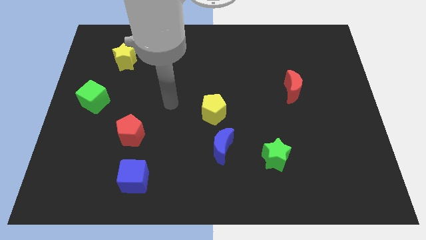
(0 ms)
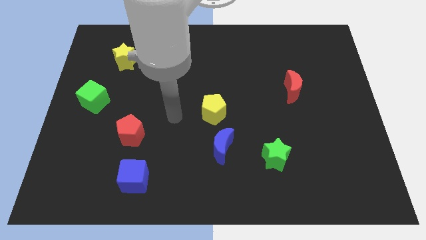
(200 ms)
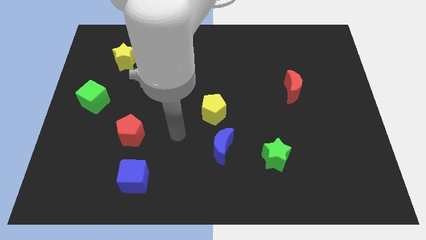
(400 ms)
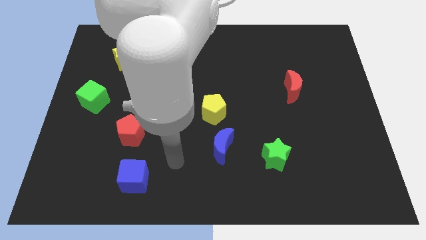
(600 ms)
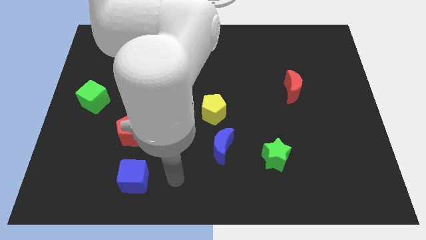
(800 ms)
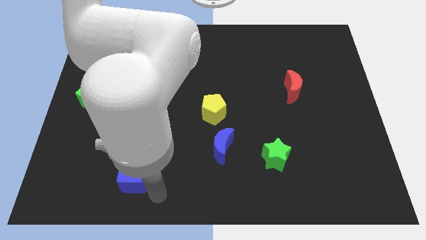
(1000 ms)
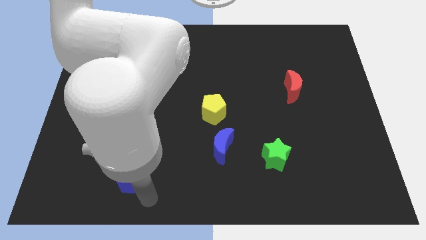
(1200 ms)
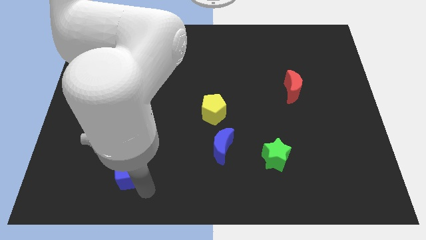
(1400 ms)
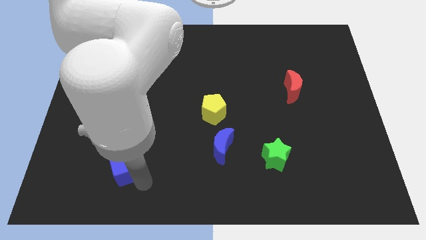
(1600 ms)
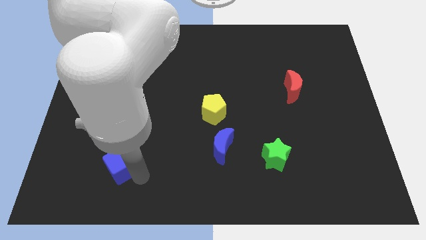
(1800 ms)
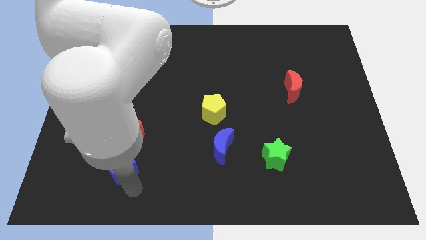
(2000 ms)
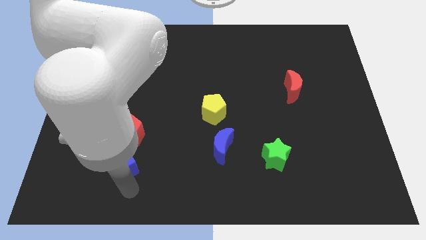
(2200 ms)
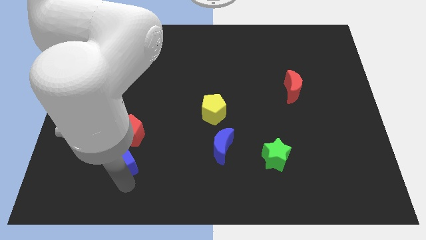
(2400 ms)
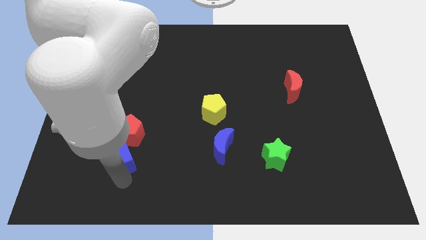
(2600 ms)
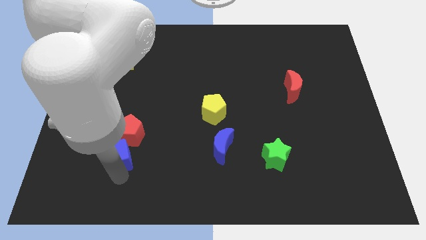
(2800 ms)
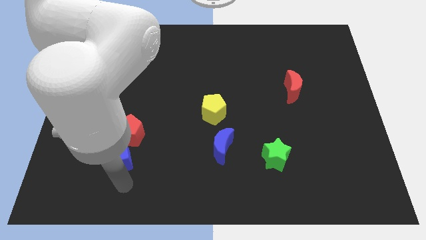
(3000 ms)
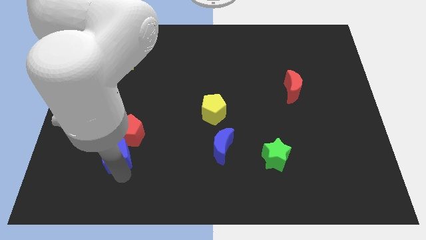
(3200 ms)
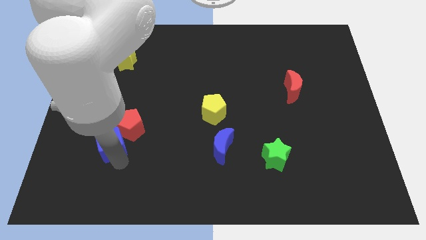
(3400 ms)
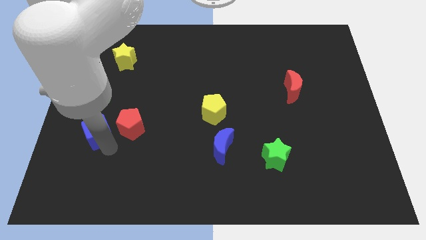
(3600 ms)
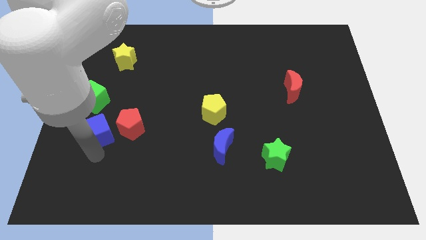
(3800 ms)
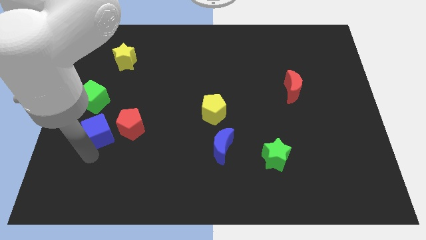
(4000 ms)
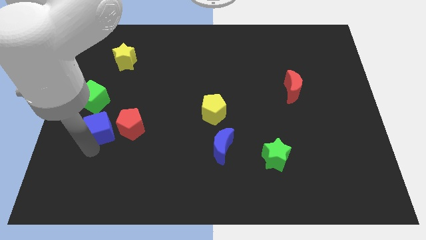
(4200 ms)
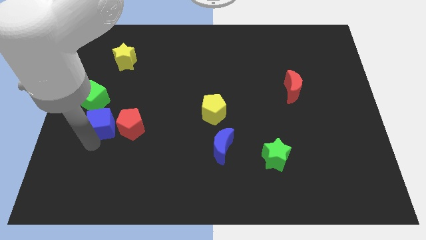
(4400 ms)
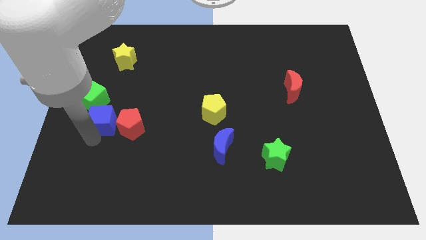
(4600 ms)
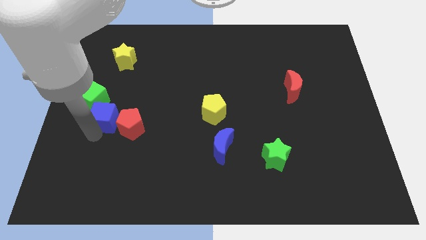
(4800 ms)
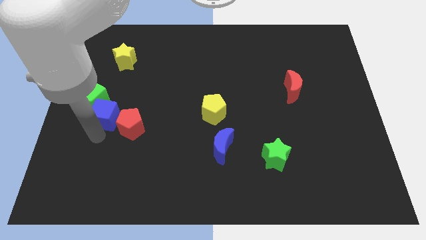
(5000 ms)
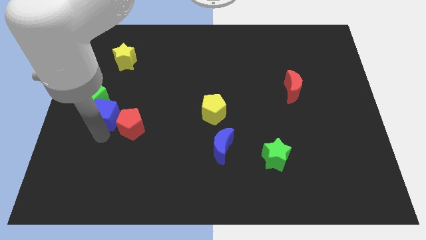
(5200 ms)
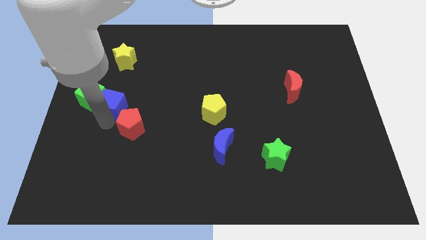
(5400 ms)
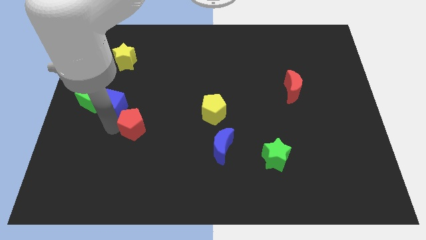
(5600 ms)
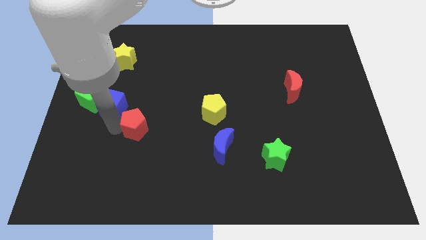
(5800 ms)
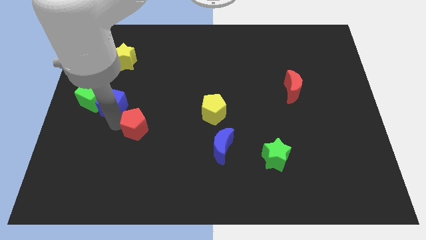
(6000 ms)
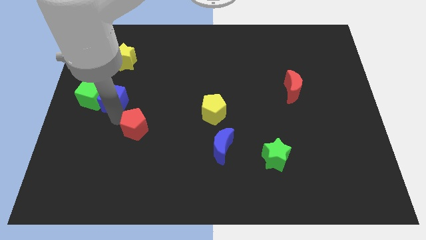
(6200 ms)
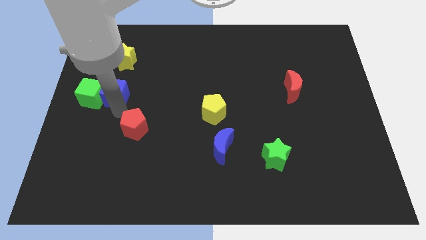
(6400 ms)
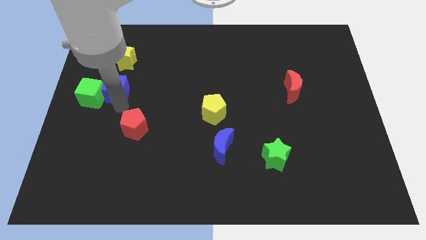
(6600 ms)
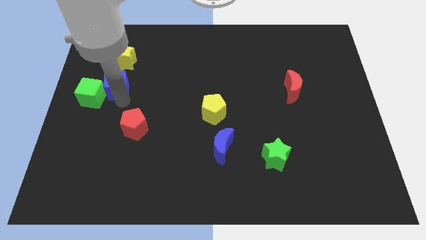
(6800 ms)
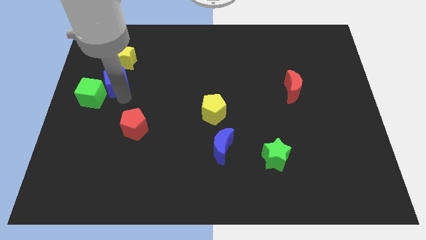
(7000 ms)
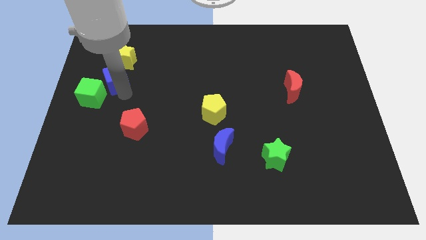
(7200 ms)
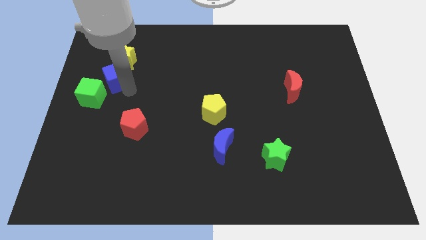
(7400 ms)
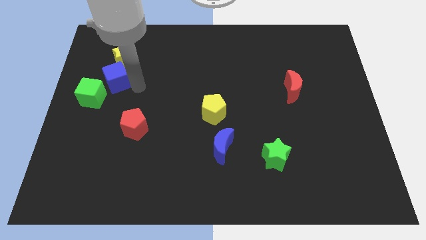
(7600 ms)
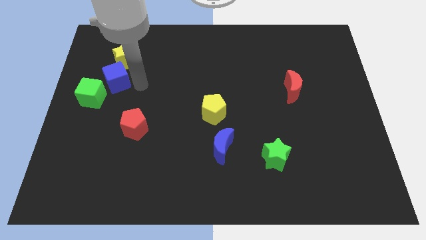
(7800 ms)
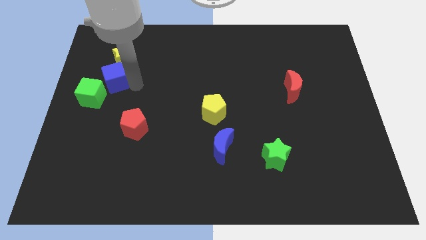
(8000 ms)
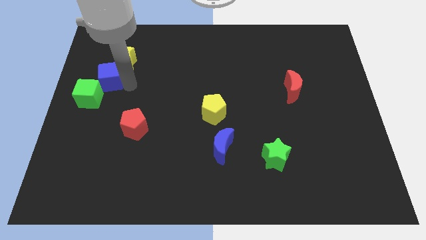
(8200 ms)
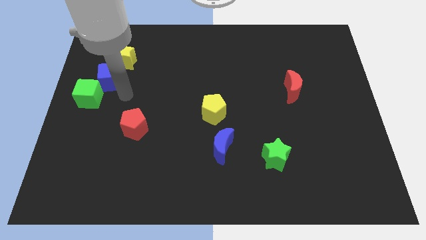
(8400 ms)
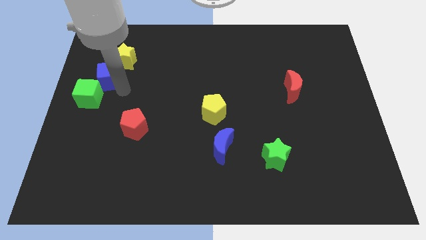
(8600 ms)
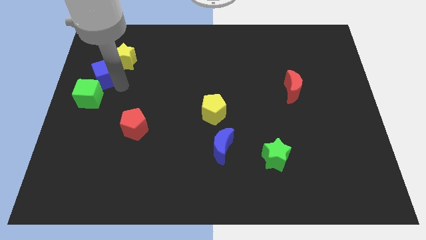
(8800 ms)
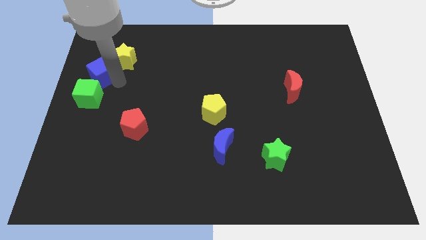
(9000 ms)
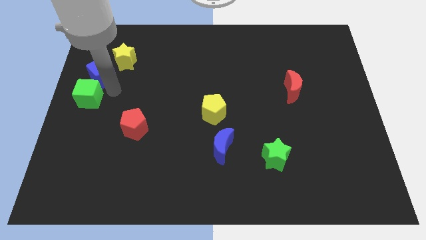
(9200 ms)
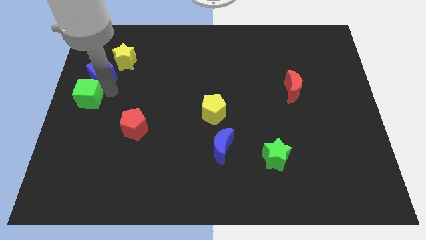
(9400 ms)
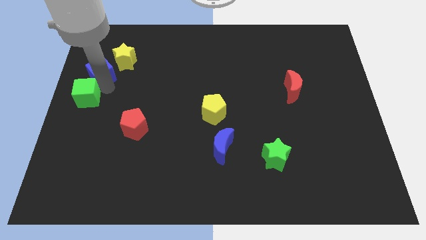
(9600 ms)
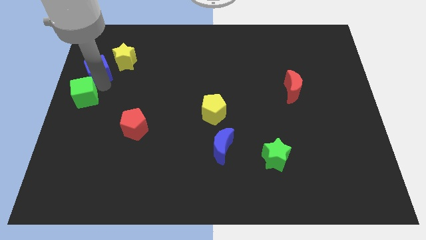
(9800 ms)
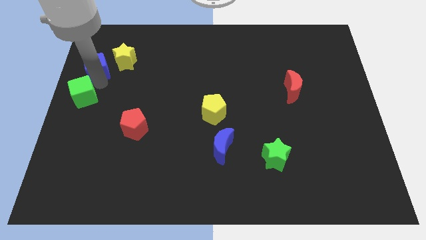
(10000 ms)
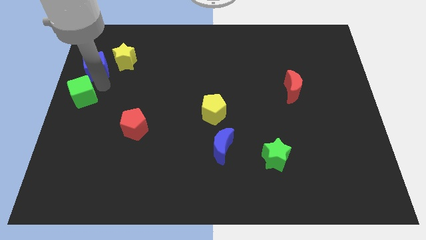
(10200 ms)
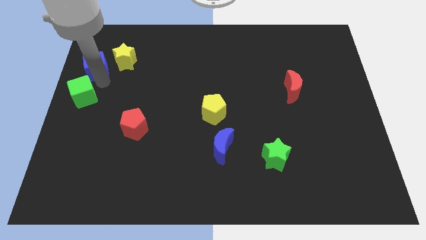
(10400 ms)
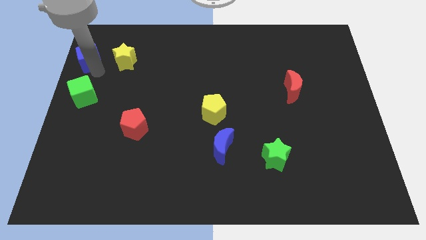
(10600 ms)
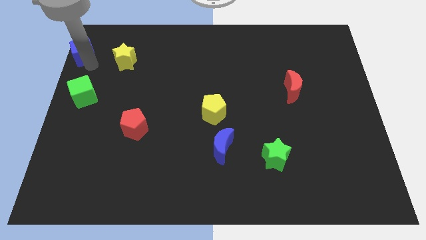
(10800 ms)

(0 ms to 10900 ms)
put the blue cube to the upper left corner
